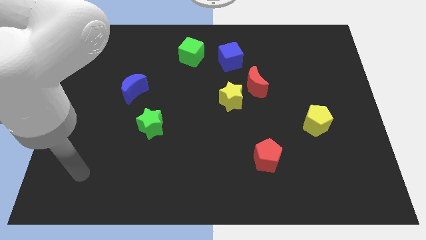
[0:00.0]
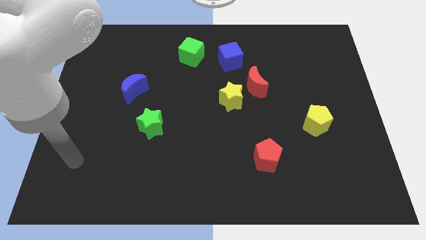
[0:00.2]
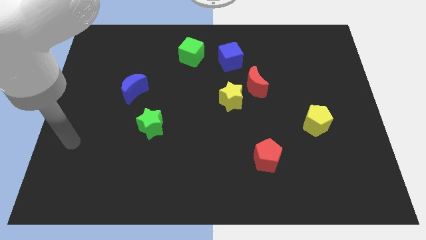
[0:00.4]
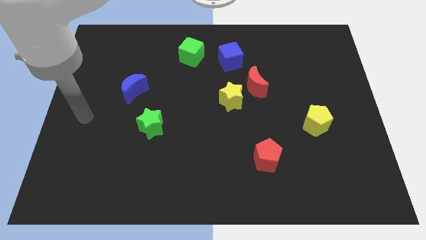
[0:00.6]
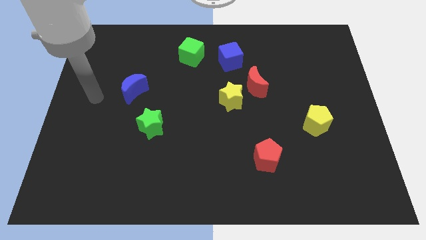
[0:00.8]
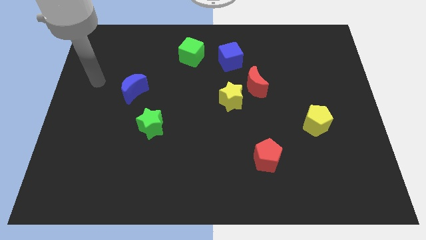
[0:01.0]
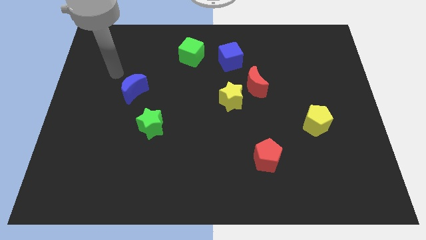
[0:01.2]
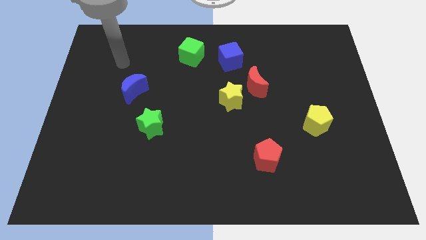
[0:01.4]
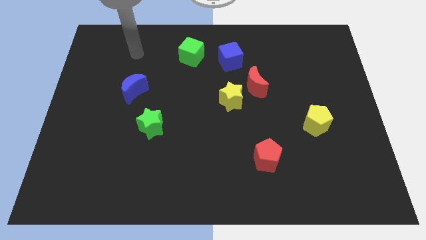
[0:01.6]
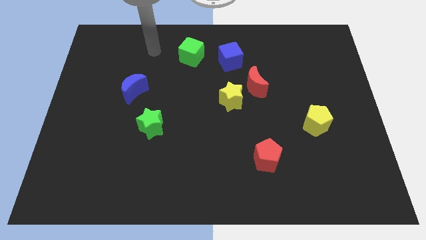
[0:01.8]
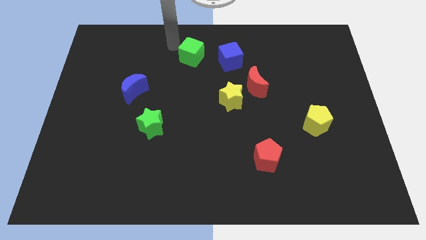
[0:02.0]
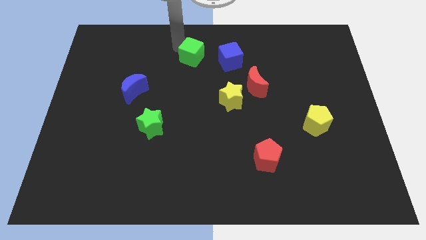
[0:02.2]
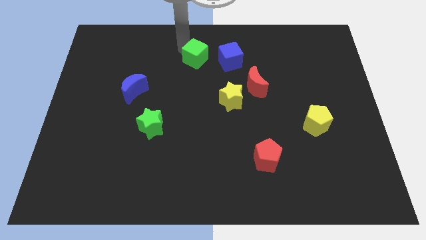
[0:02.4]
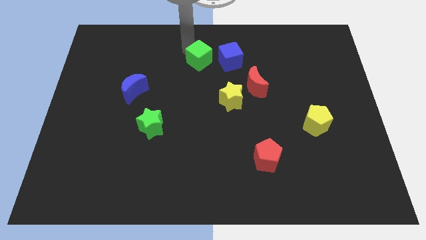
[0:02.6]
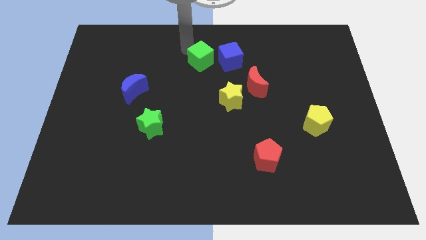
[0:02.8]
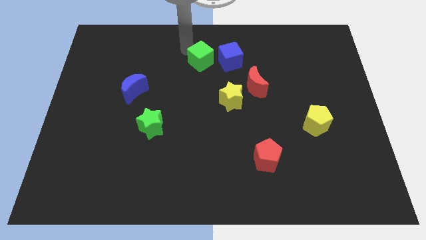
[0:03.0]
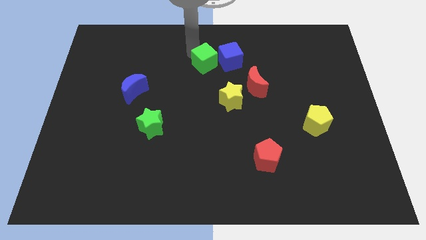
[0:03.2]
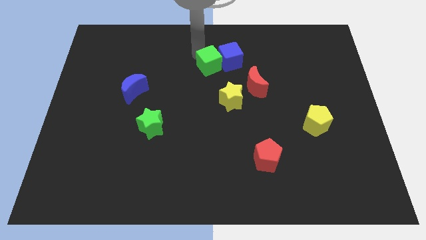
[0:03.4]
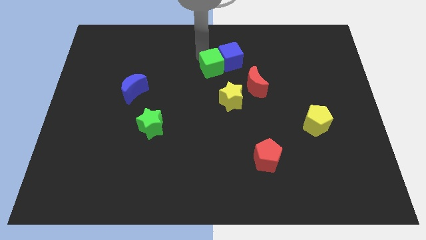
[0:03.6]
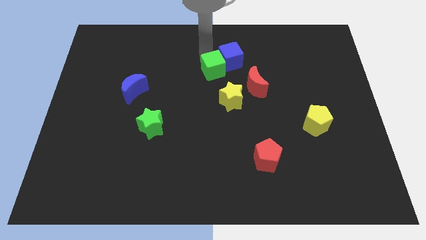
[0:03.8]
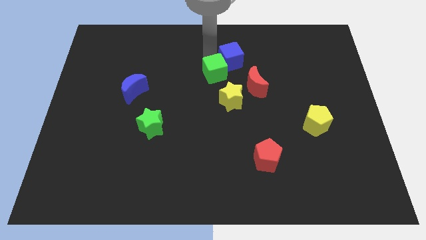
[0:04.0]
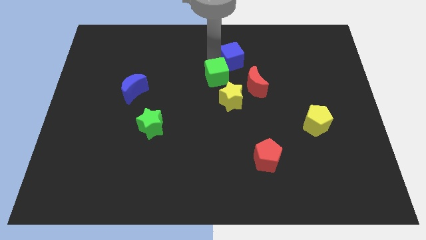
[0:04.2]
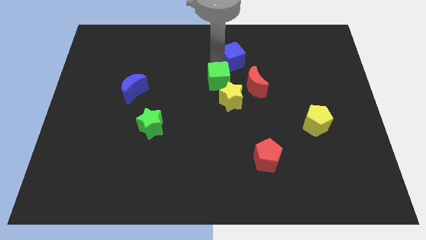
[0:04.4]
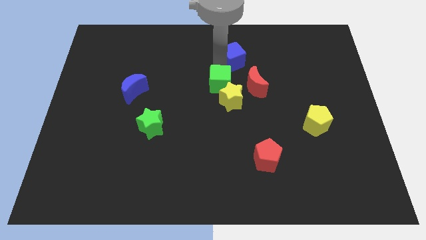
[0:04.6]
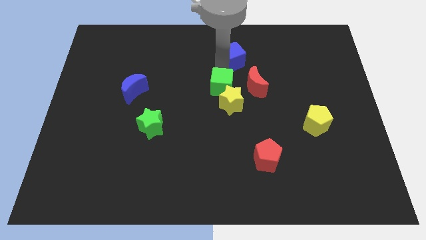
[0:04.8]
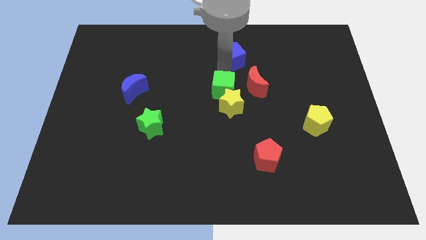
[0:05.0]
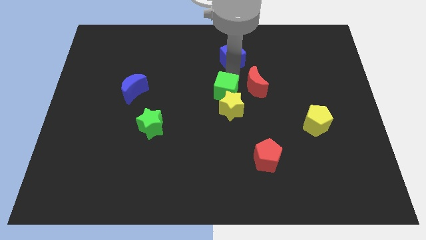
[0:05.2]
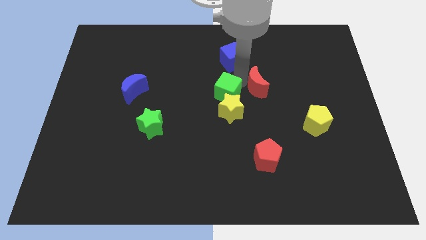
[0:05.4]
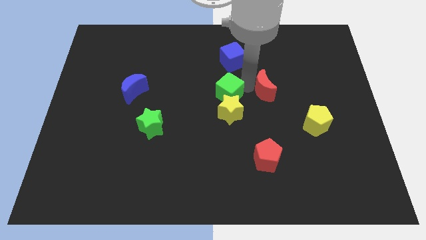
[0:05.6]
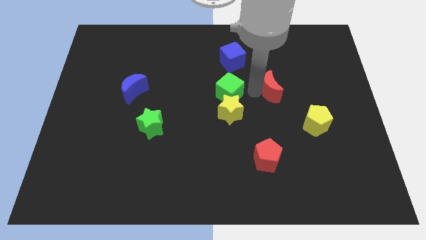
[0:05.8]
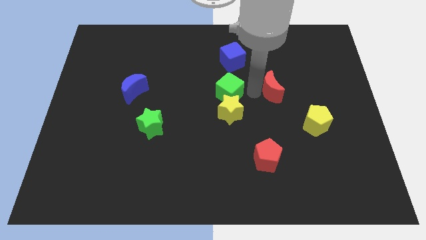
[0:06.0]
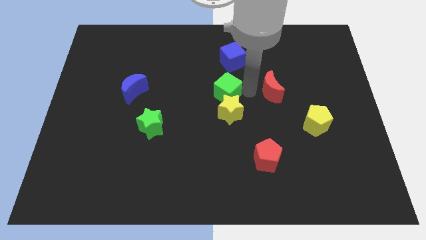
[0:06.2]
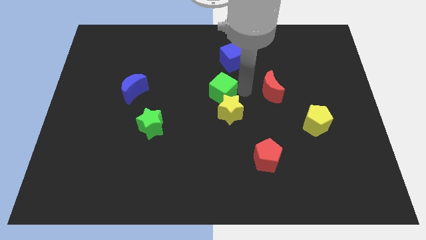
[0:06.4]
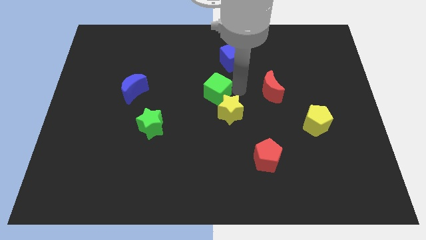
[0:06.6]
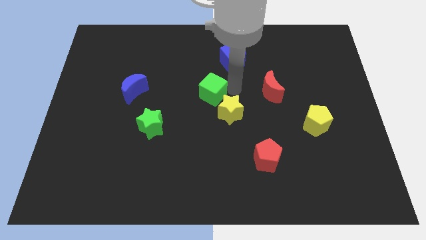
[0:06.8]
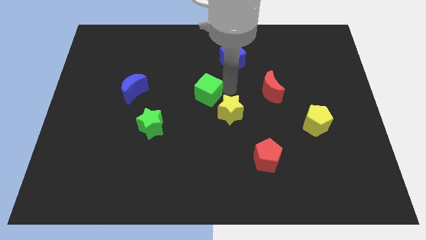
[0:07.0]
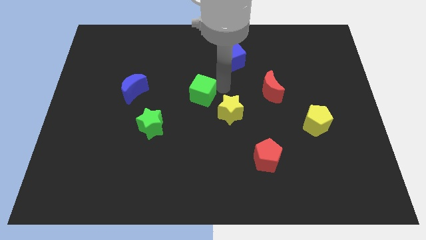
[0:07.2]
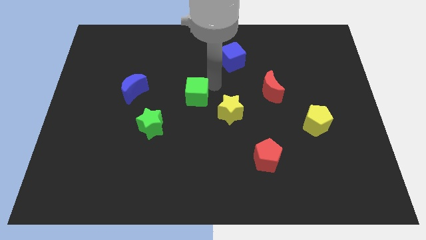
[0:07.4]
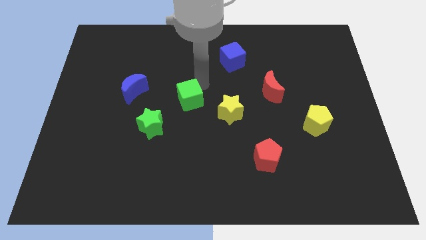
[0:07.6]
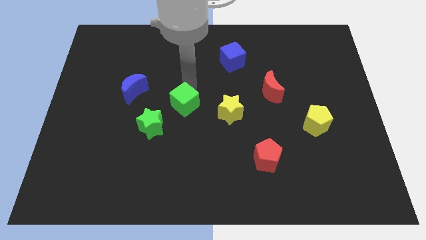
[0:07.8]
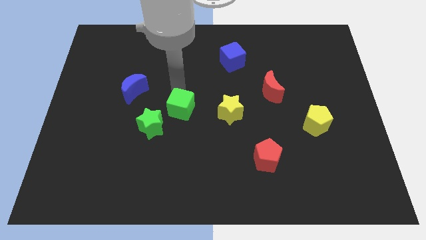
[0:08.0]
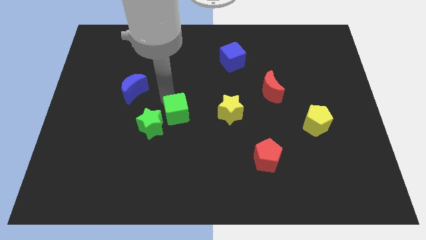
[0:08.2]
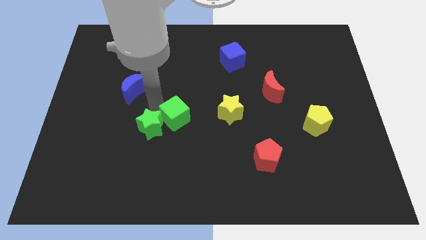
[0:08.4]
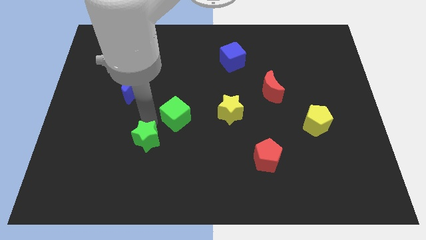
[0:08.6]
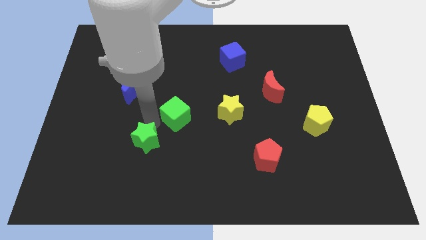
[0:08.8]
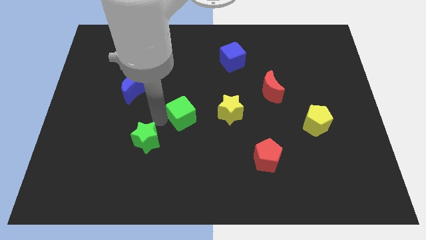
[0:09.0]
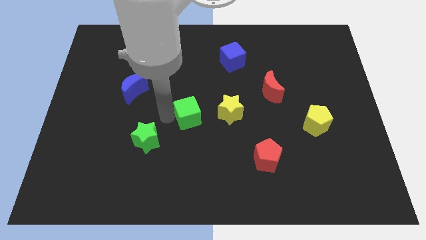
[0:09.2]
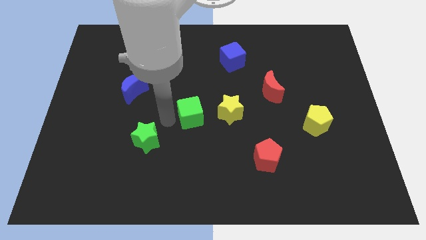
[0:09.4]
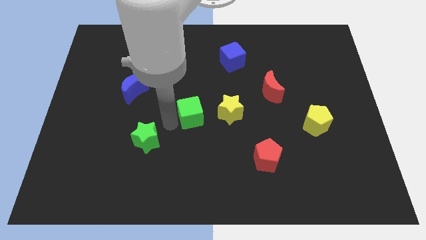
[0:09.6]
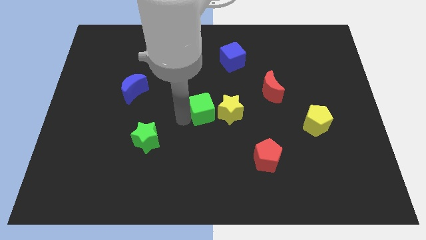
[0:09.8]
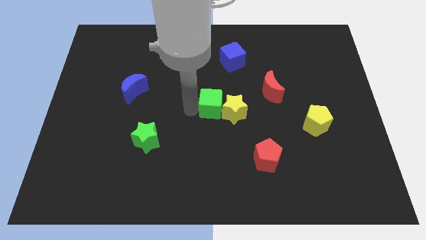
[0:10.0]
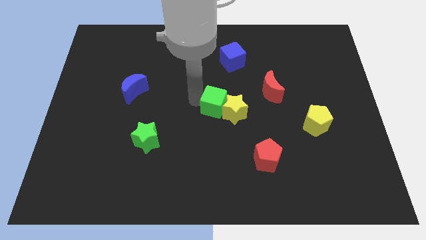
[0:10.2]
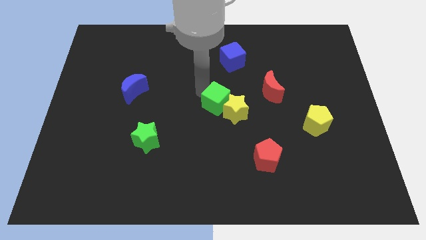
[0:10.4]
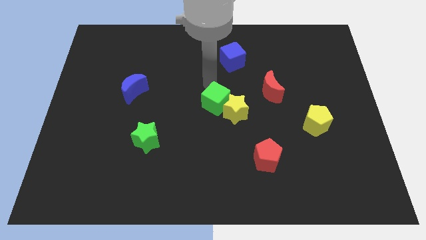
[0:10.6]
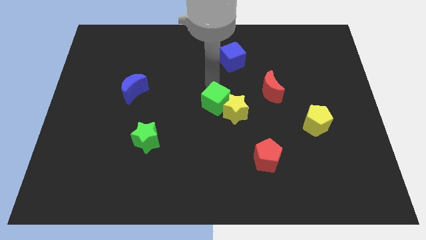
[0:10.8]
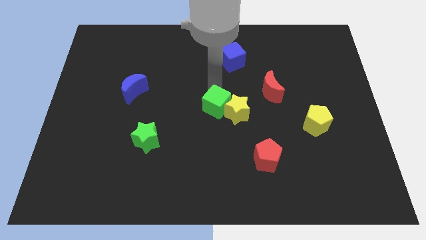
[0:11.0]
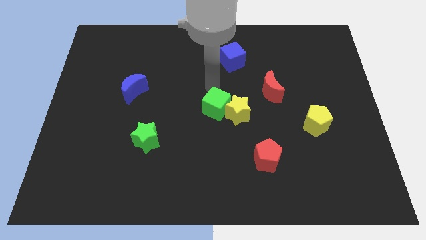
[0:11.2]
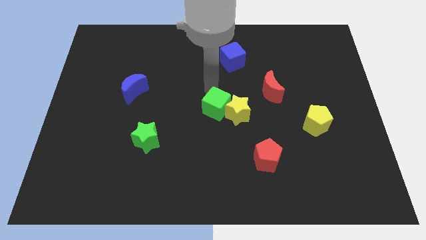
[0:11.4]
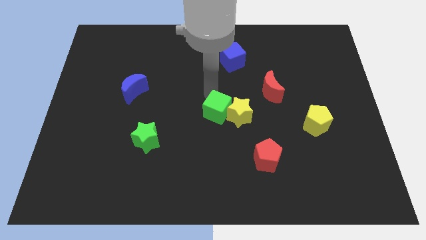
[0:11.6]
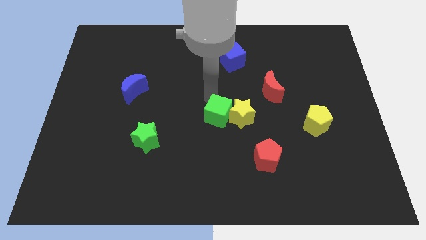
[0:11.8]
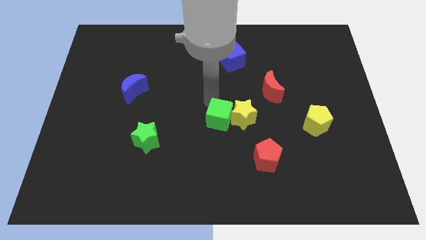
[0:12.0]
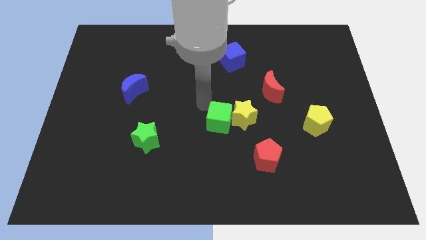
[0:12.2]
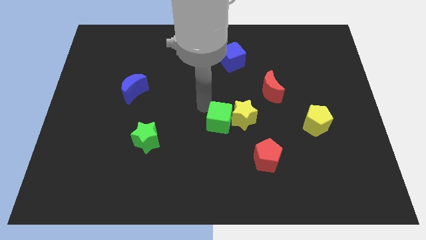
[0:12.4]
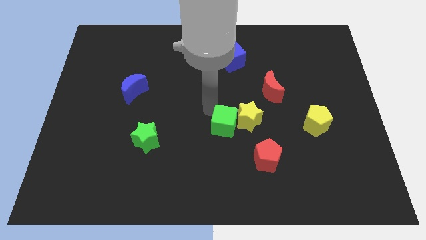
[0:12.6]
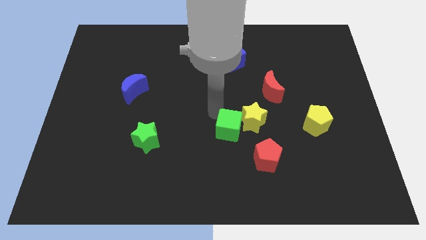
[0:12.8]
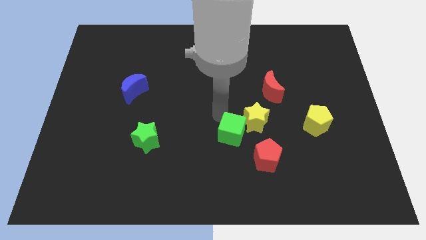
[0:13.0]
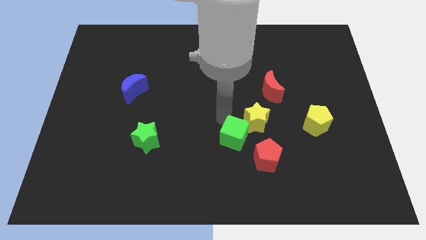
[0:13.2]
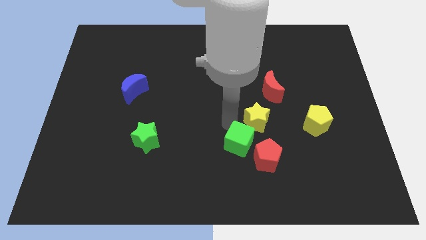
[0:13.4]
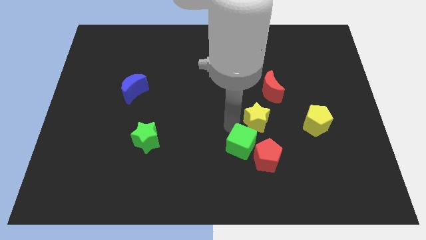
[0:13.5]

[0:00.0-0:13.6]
move the green cube next to the red pentagon

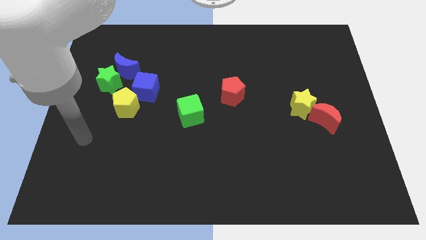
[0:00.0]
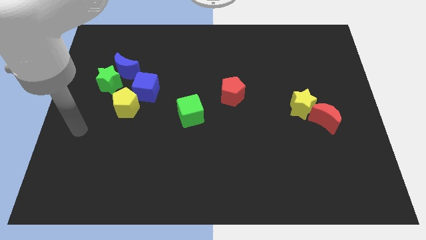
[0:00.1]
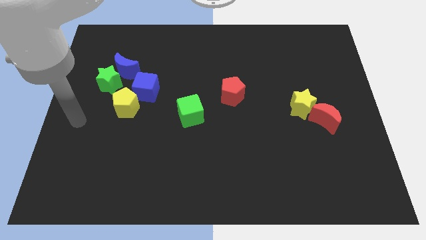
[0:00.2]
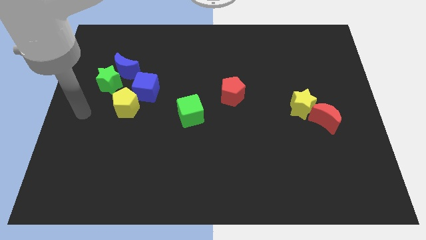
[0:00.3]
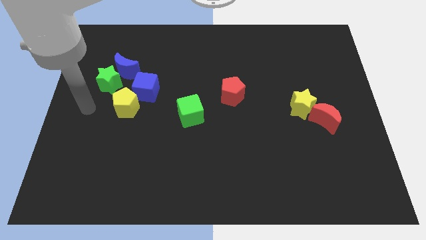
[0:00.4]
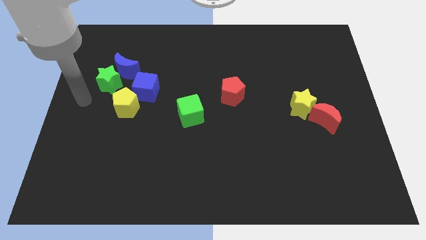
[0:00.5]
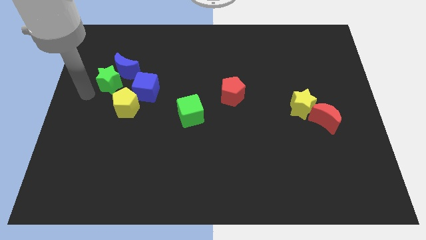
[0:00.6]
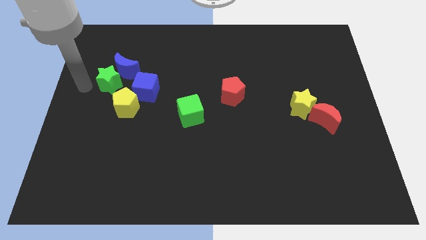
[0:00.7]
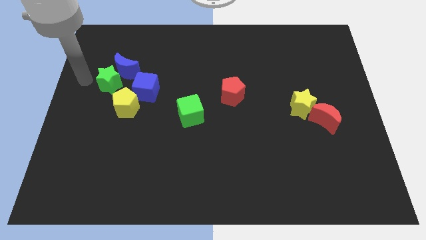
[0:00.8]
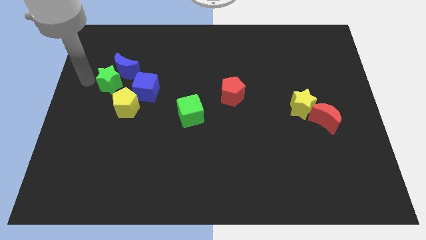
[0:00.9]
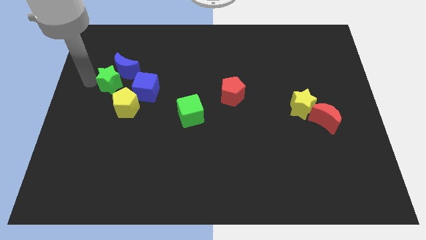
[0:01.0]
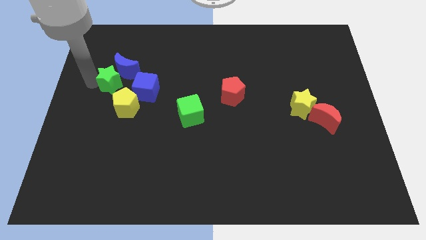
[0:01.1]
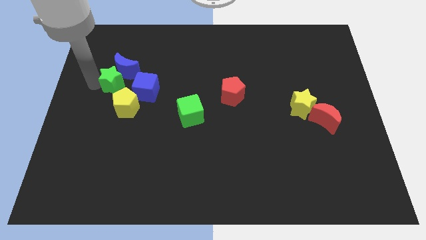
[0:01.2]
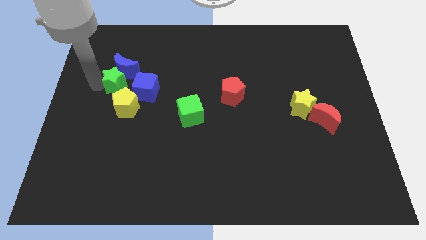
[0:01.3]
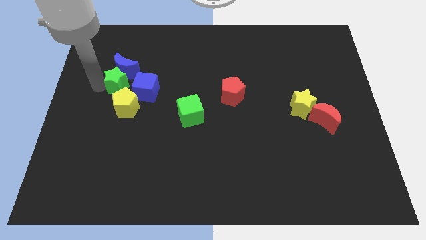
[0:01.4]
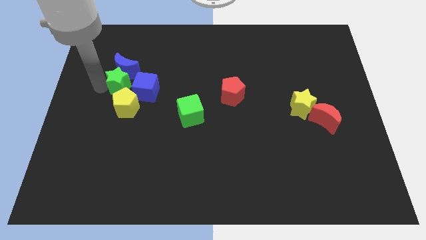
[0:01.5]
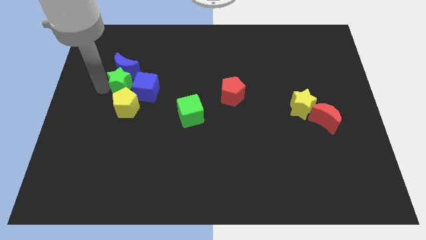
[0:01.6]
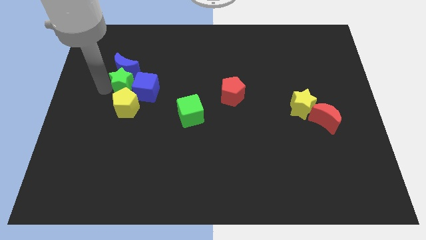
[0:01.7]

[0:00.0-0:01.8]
put the green star close to the blue cube
